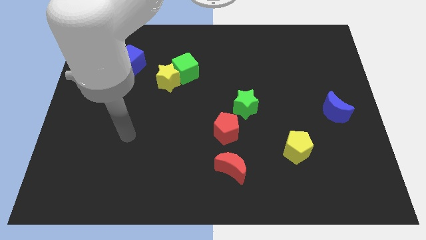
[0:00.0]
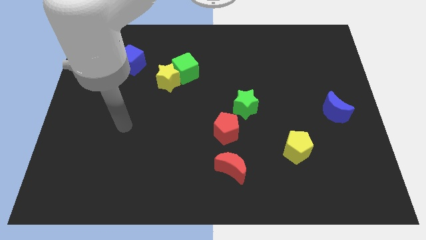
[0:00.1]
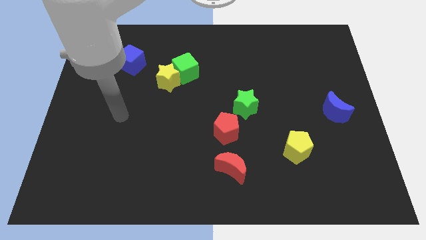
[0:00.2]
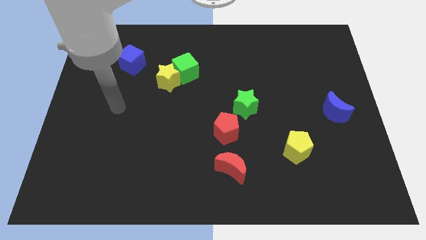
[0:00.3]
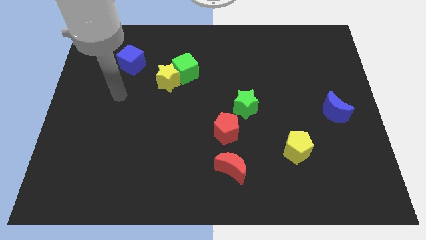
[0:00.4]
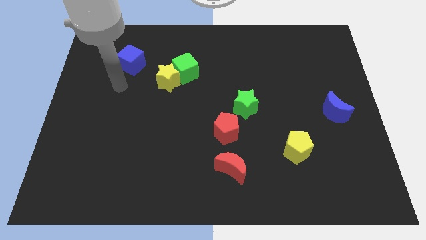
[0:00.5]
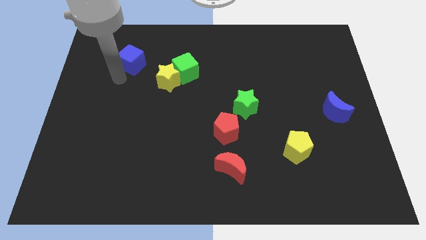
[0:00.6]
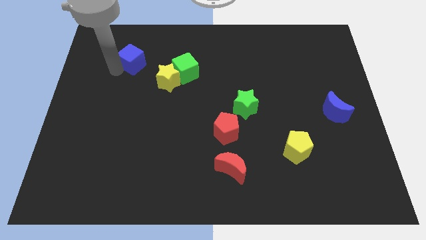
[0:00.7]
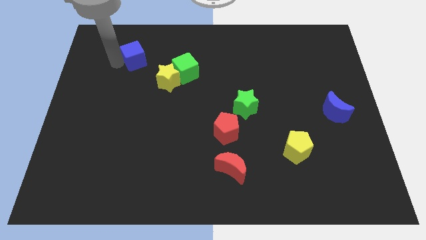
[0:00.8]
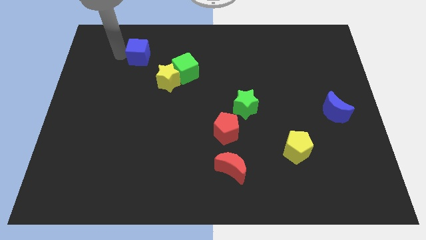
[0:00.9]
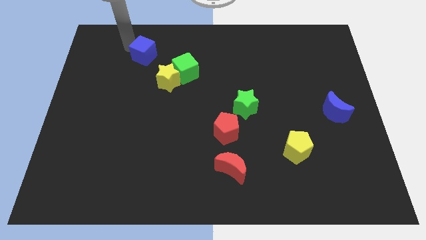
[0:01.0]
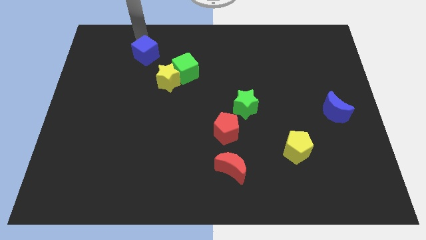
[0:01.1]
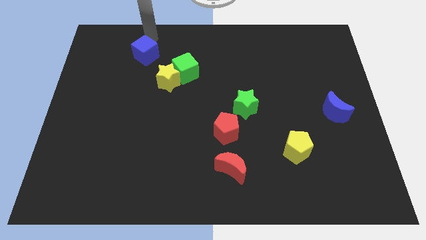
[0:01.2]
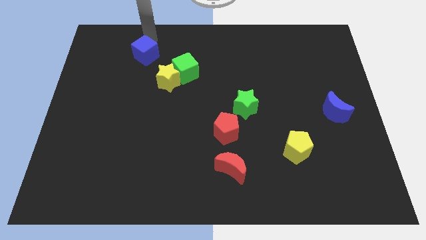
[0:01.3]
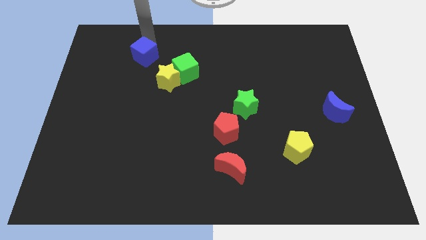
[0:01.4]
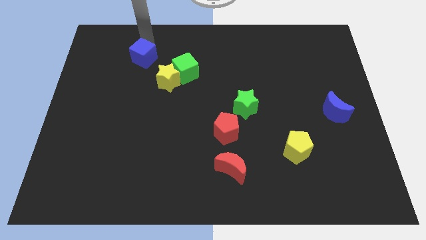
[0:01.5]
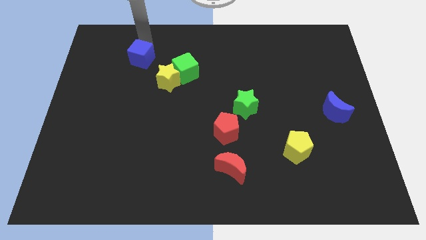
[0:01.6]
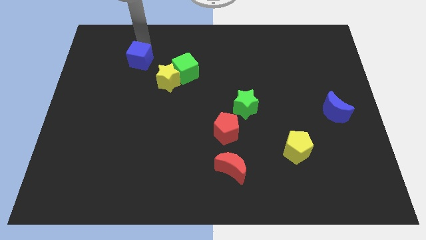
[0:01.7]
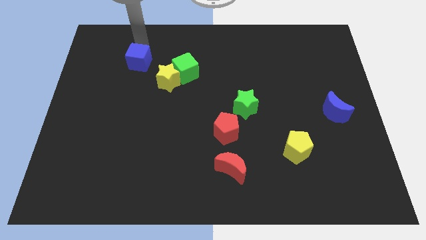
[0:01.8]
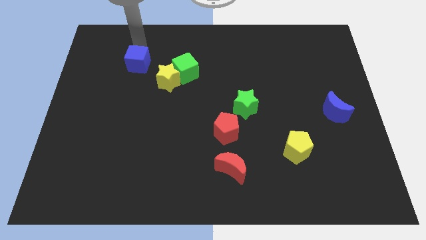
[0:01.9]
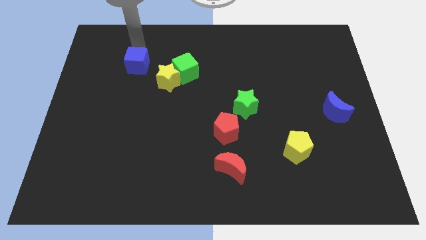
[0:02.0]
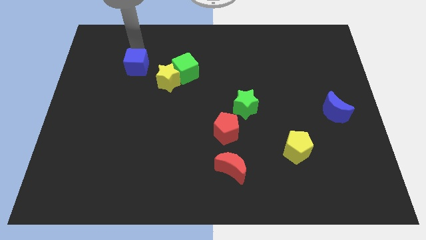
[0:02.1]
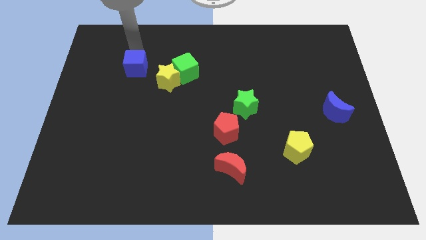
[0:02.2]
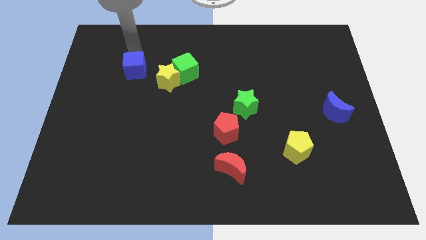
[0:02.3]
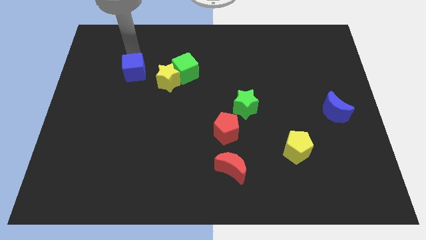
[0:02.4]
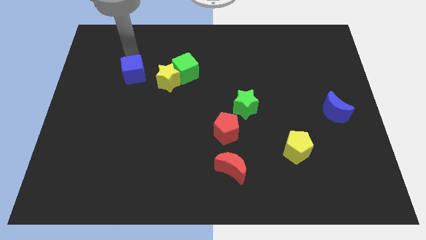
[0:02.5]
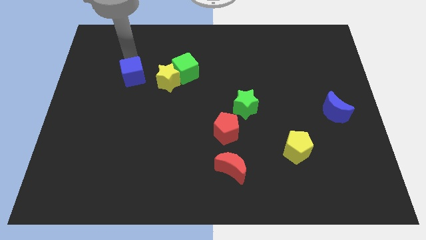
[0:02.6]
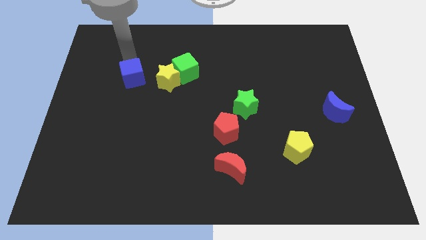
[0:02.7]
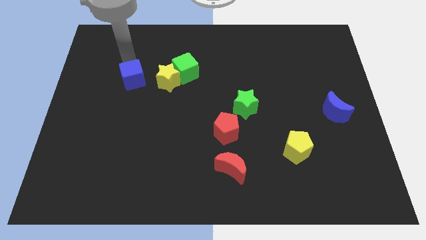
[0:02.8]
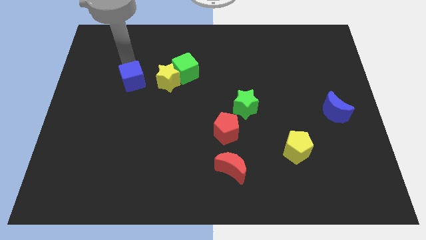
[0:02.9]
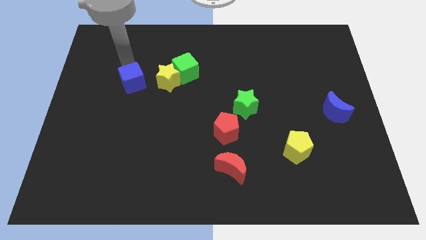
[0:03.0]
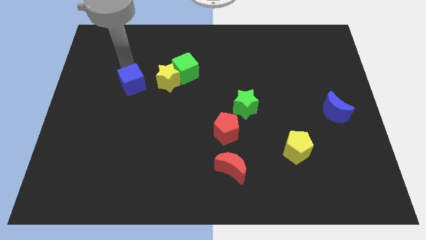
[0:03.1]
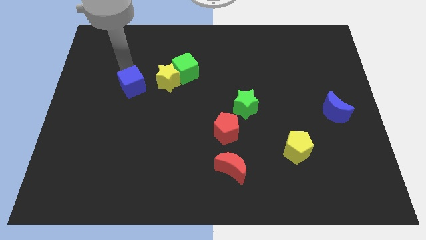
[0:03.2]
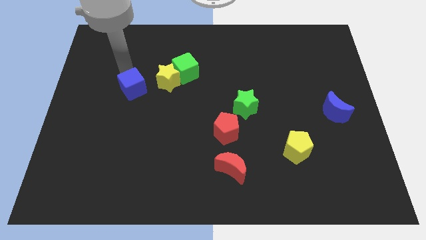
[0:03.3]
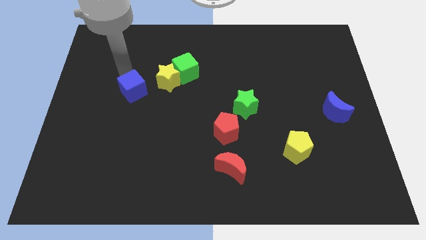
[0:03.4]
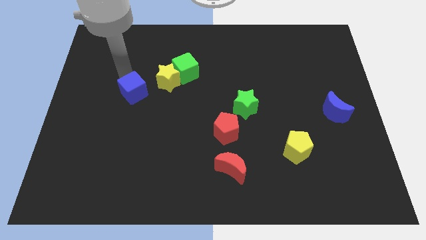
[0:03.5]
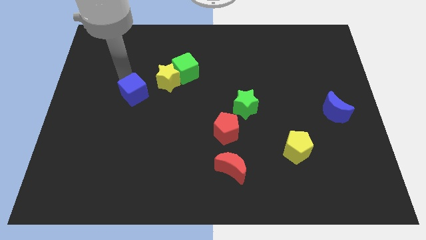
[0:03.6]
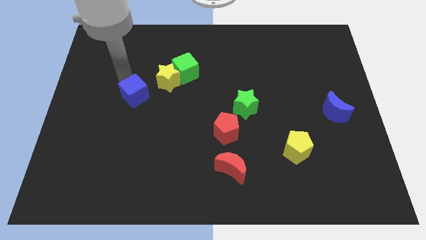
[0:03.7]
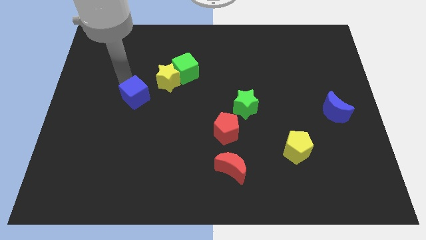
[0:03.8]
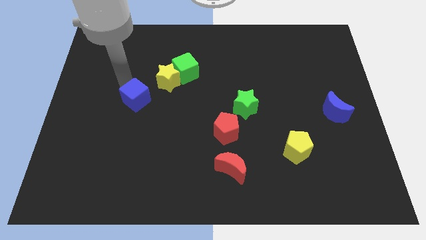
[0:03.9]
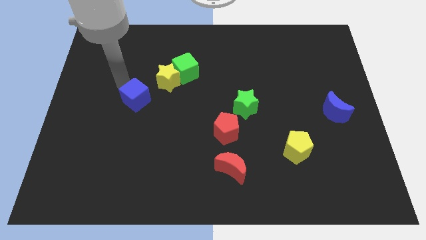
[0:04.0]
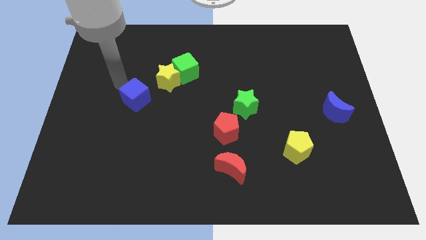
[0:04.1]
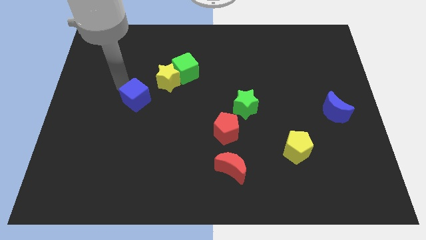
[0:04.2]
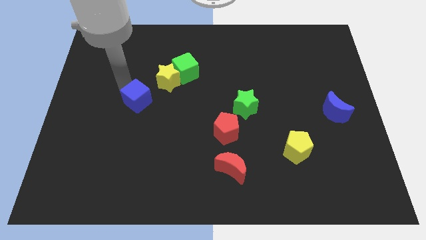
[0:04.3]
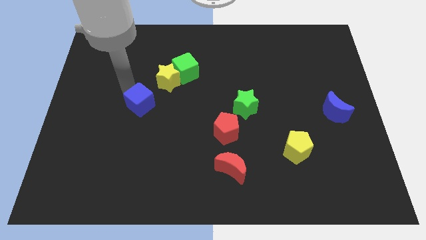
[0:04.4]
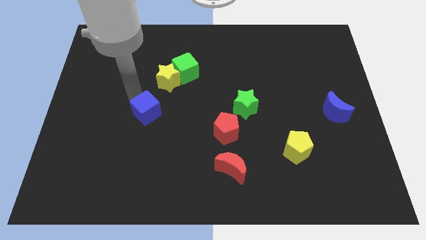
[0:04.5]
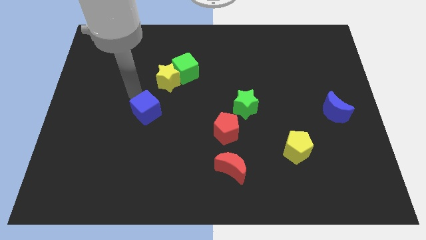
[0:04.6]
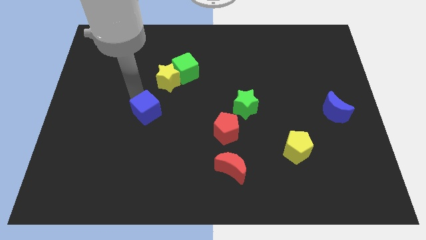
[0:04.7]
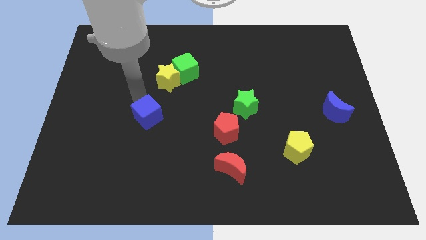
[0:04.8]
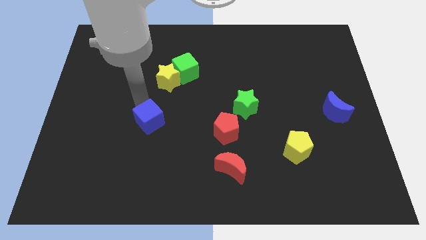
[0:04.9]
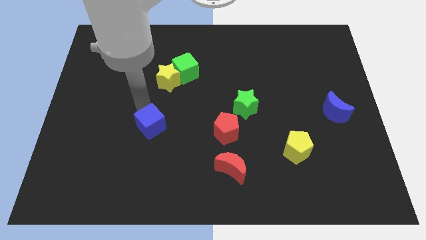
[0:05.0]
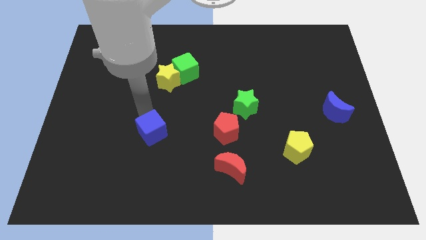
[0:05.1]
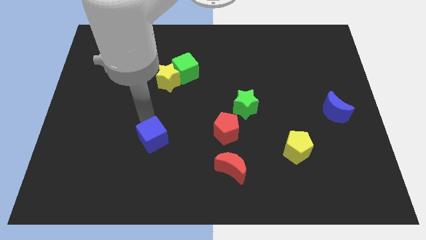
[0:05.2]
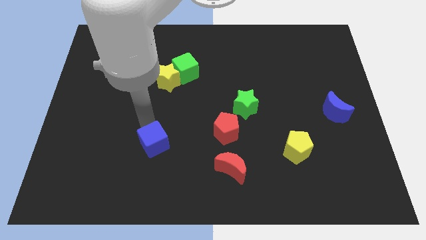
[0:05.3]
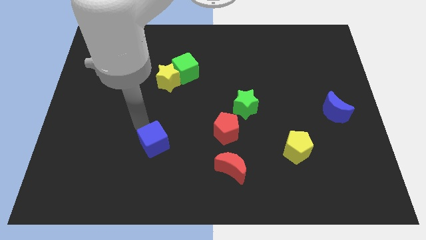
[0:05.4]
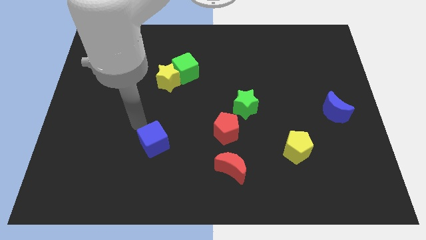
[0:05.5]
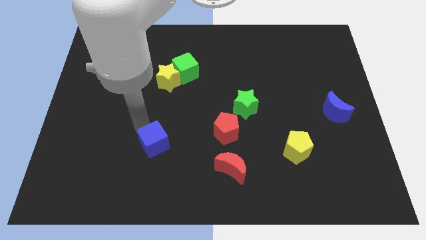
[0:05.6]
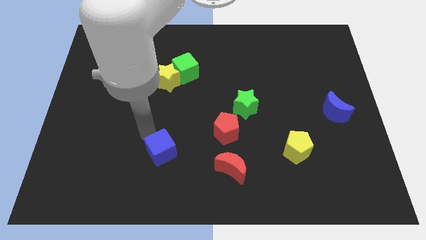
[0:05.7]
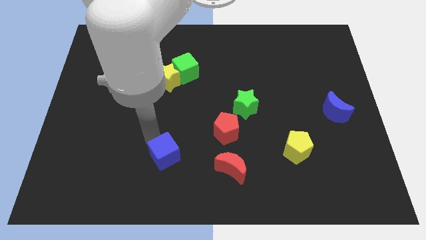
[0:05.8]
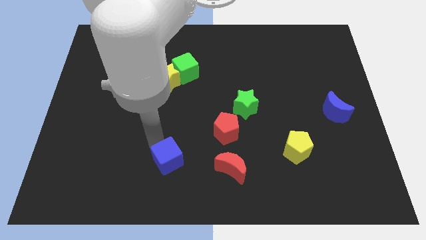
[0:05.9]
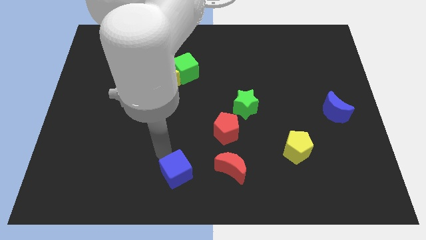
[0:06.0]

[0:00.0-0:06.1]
put the blue cube to the bottom
